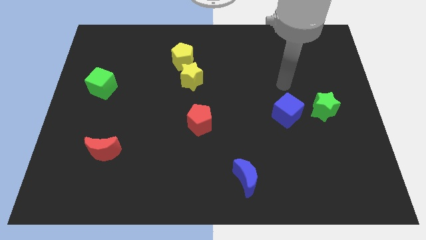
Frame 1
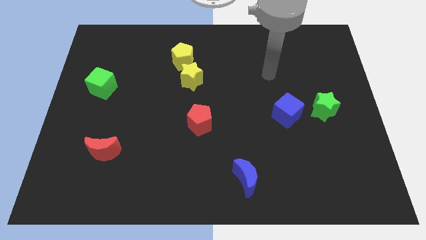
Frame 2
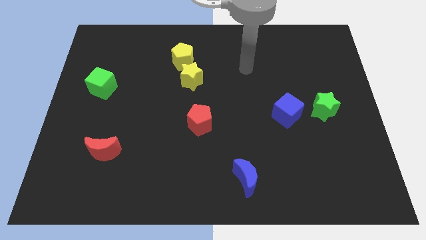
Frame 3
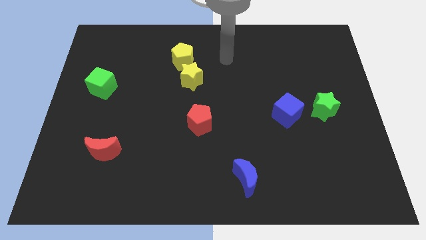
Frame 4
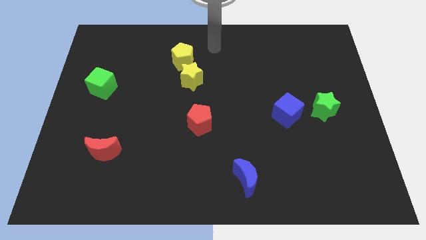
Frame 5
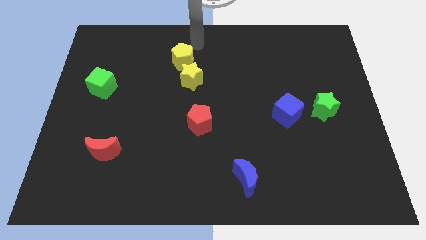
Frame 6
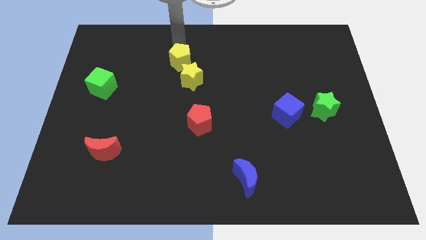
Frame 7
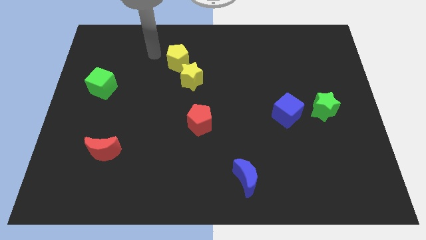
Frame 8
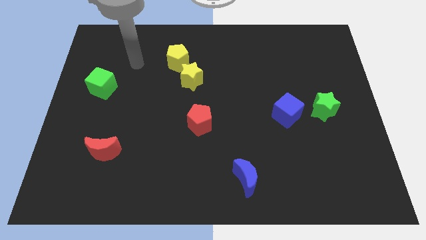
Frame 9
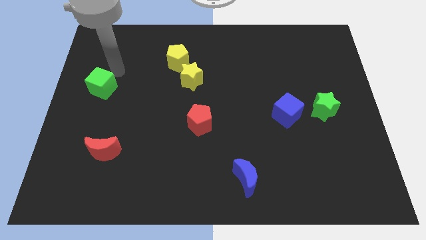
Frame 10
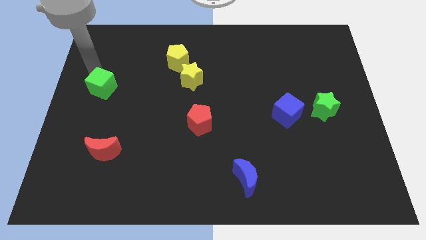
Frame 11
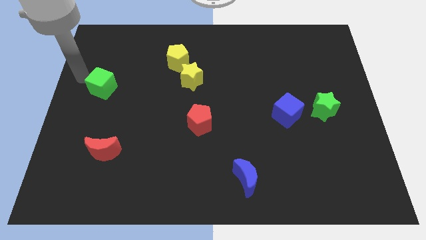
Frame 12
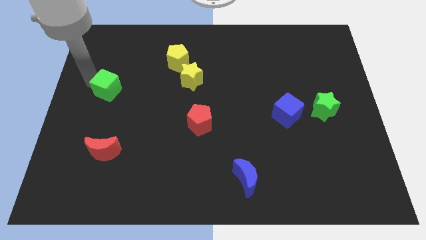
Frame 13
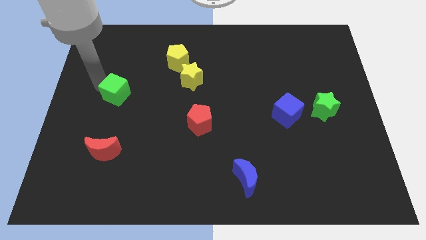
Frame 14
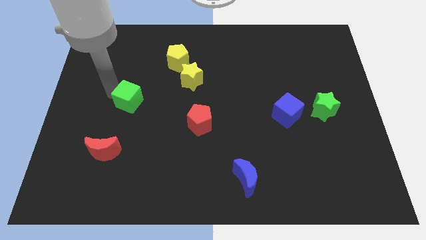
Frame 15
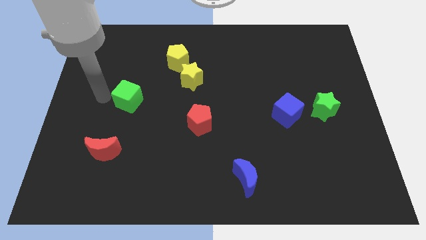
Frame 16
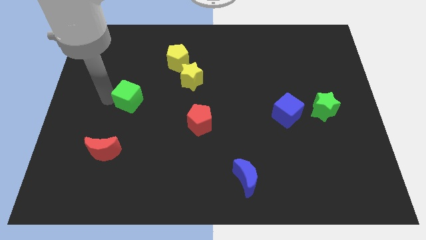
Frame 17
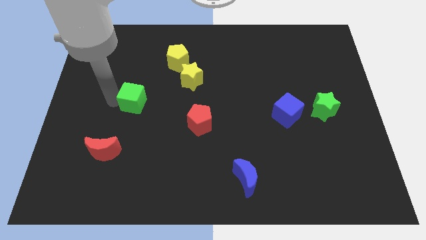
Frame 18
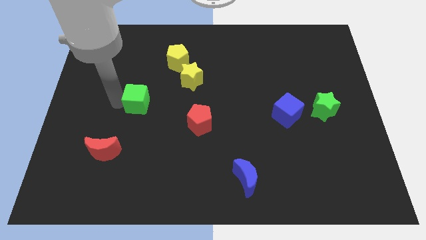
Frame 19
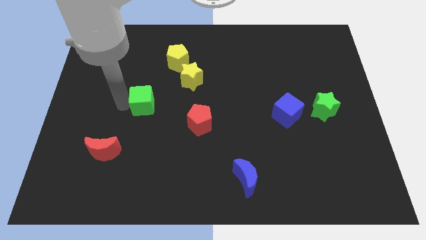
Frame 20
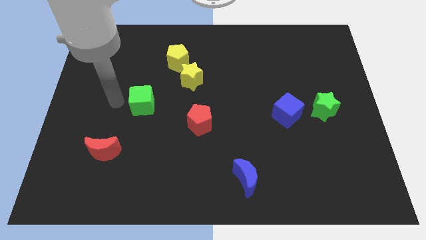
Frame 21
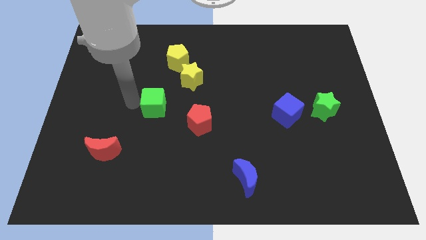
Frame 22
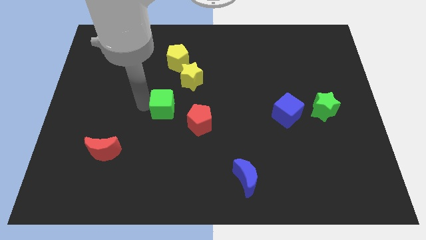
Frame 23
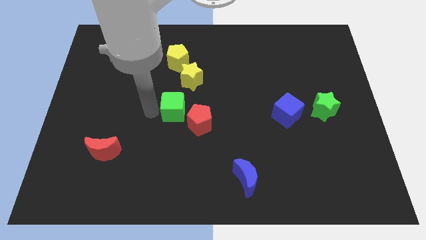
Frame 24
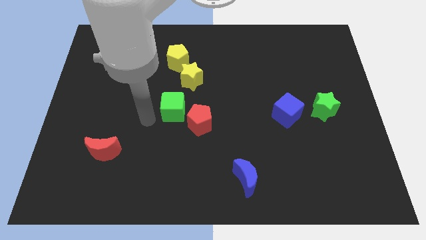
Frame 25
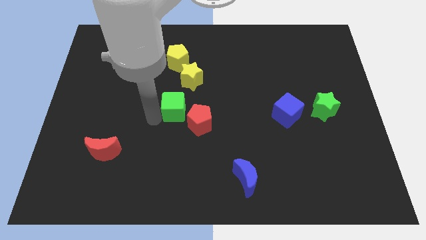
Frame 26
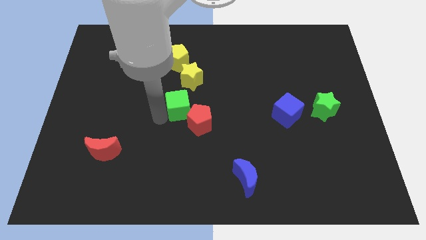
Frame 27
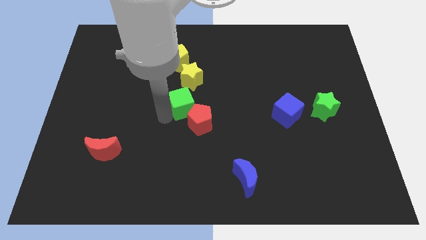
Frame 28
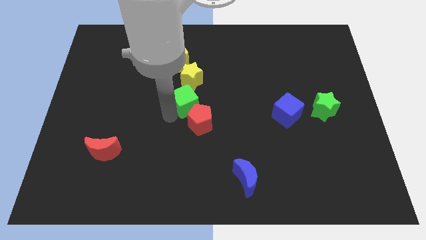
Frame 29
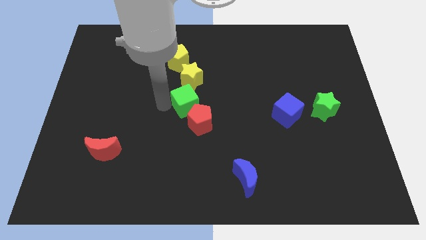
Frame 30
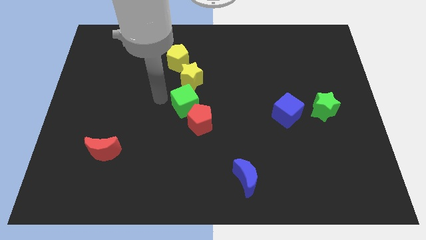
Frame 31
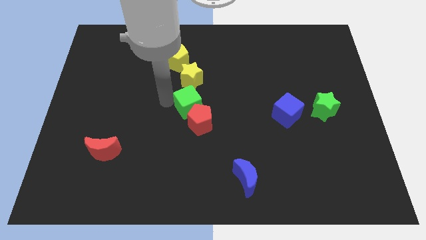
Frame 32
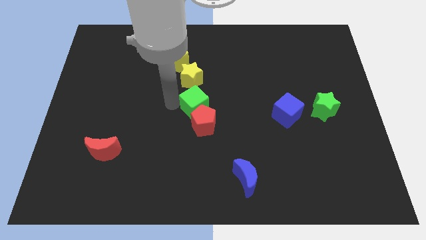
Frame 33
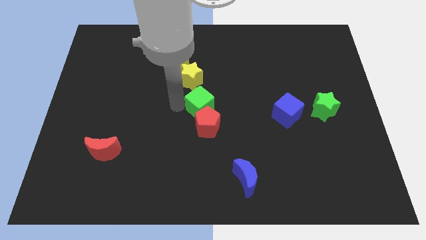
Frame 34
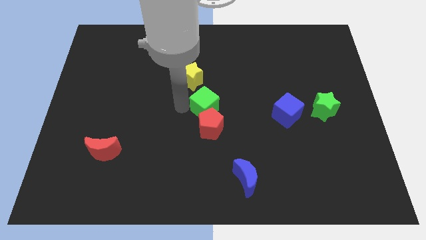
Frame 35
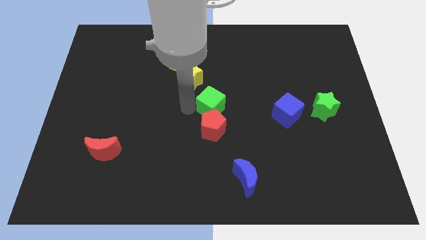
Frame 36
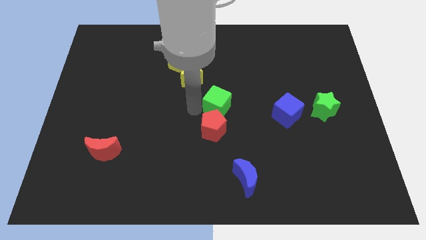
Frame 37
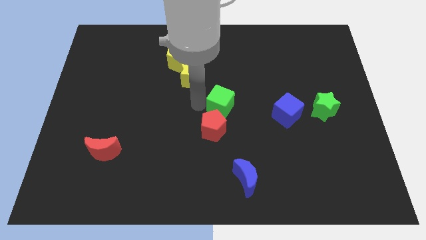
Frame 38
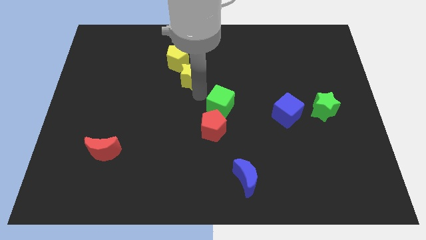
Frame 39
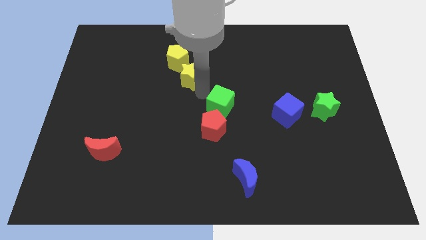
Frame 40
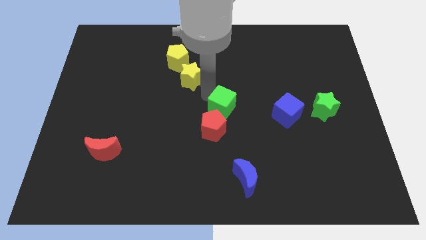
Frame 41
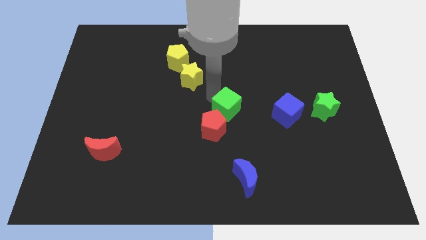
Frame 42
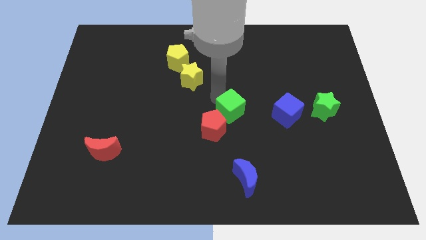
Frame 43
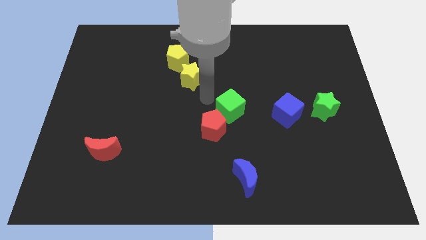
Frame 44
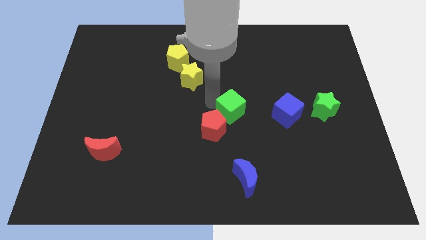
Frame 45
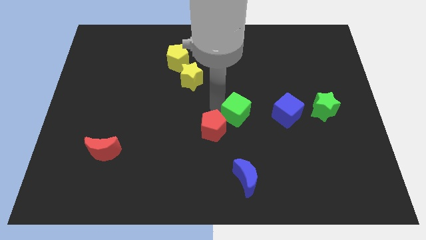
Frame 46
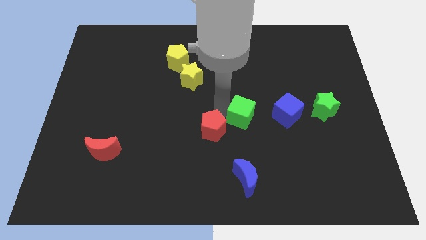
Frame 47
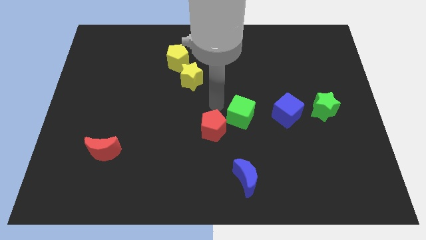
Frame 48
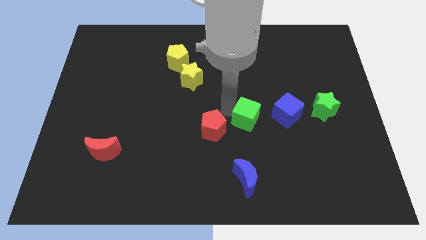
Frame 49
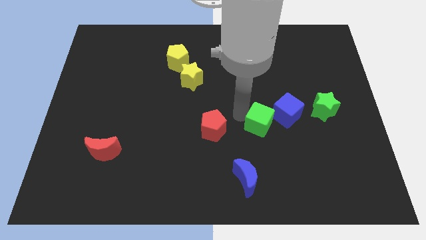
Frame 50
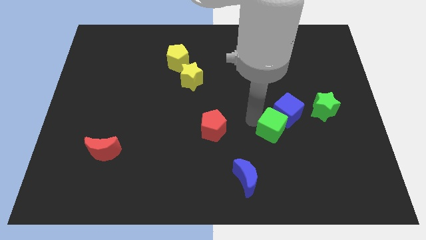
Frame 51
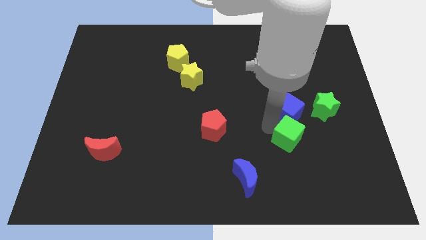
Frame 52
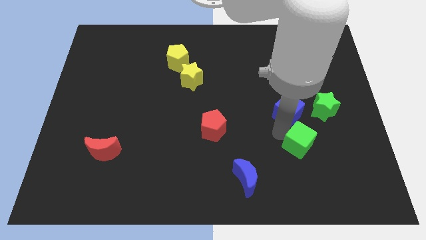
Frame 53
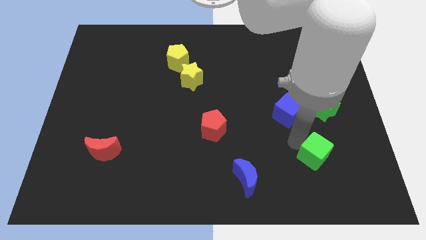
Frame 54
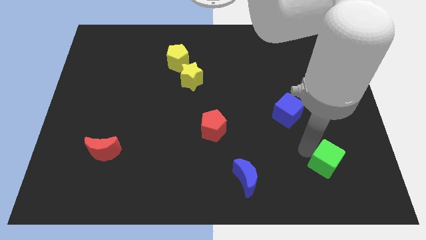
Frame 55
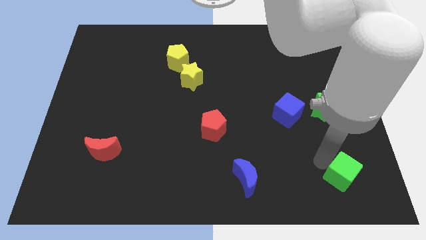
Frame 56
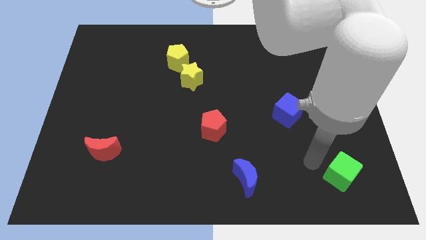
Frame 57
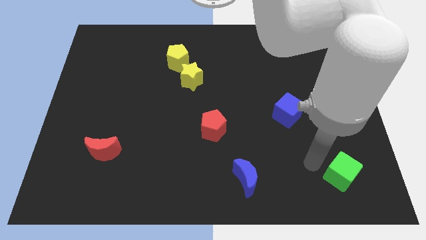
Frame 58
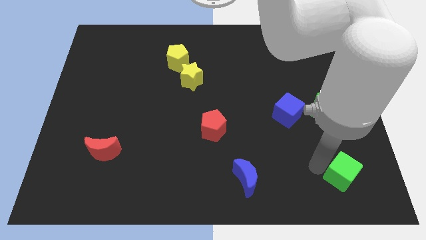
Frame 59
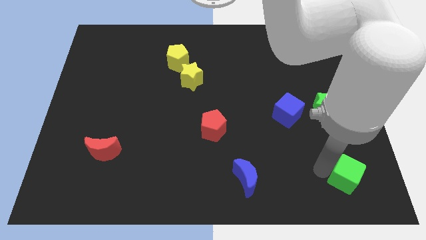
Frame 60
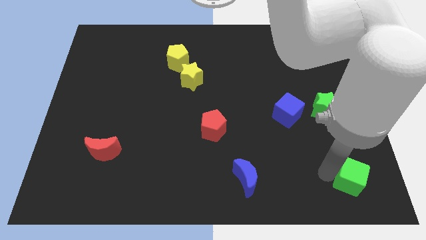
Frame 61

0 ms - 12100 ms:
slide the green cube to the lower right corner
